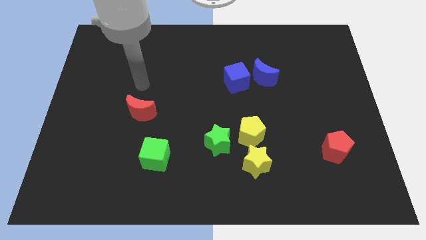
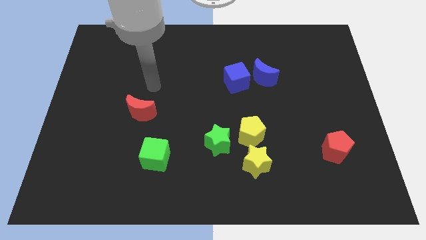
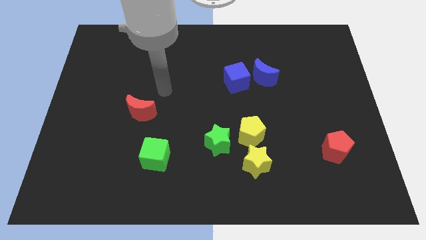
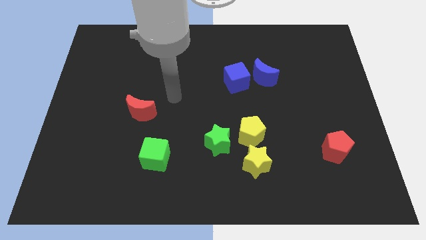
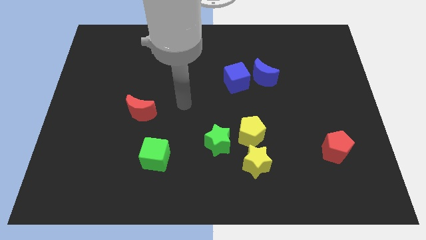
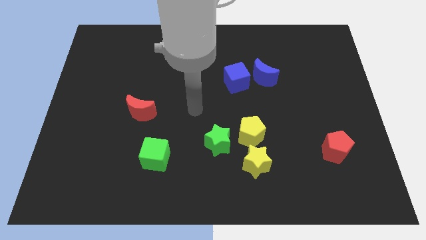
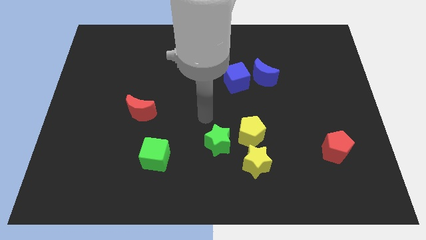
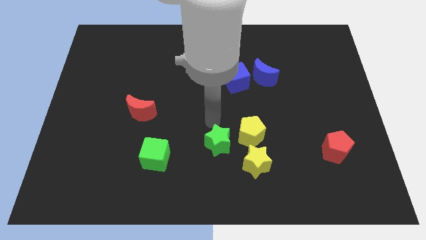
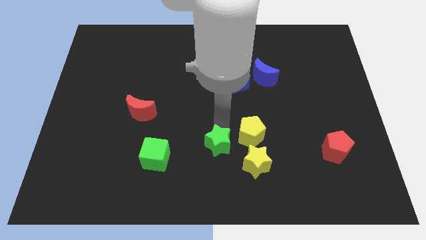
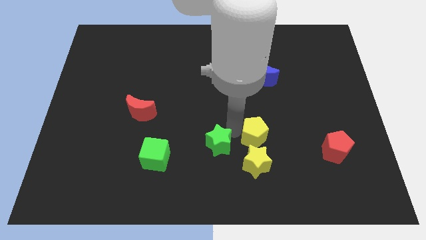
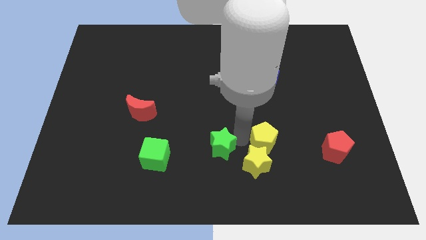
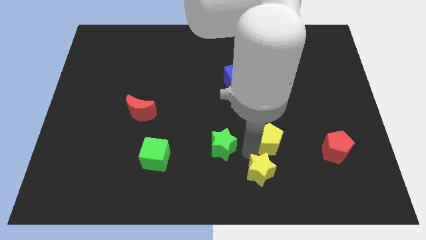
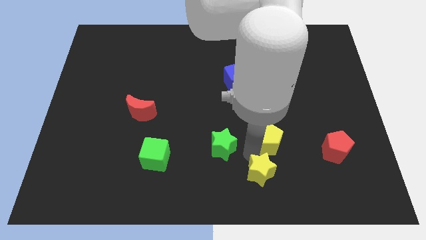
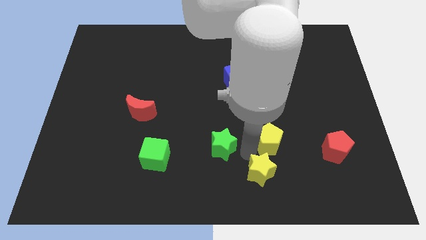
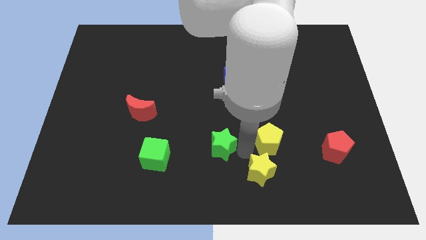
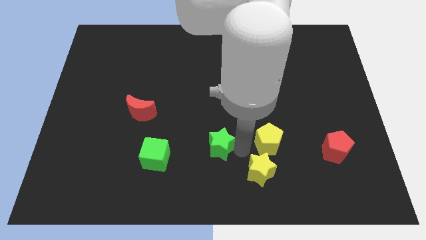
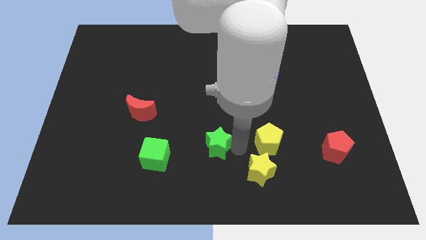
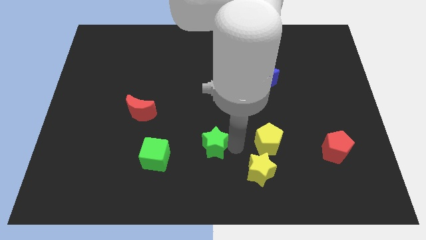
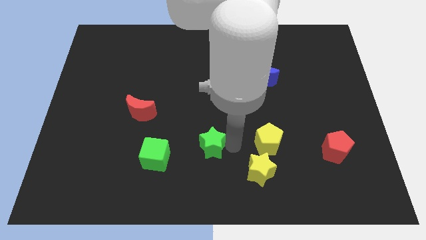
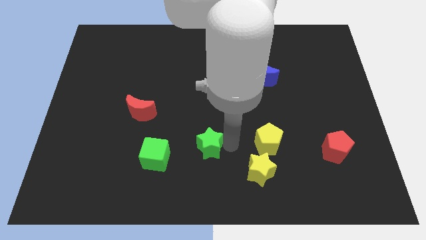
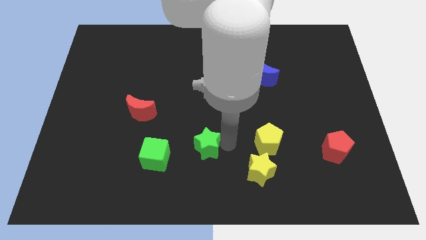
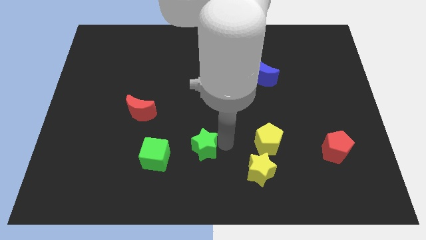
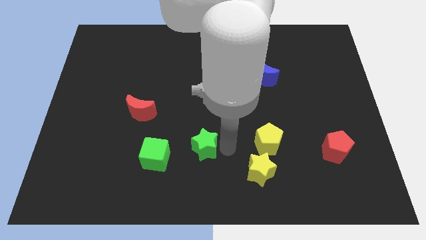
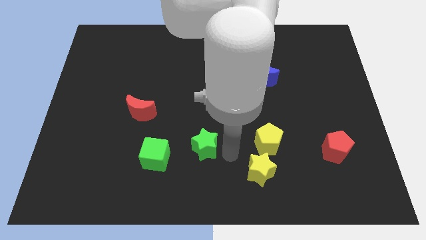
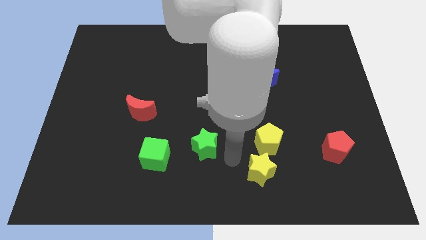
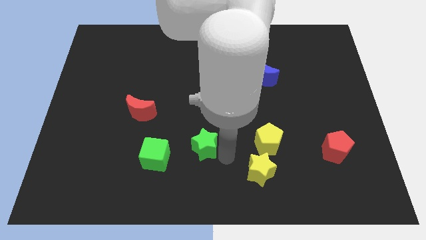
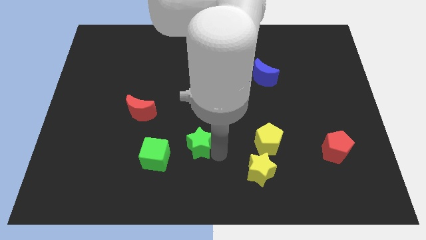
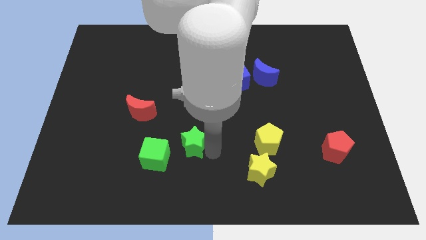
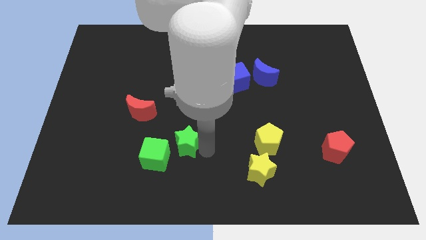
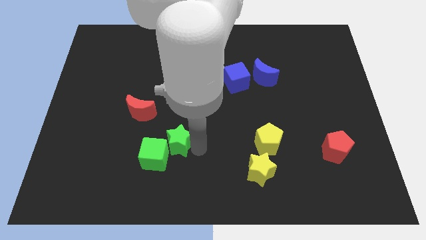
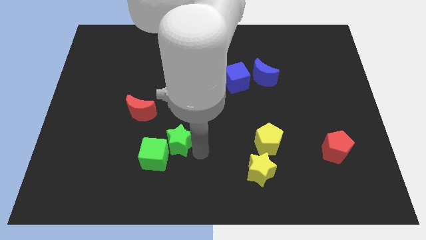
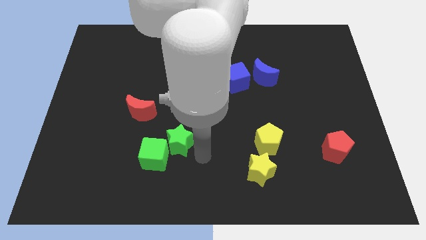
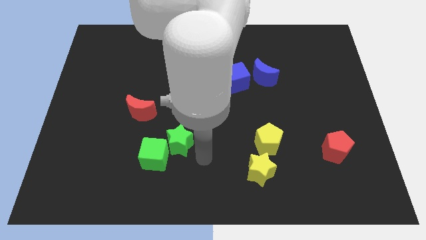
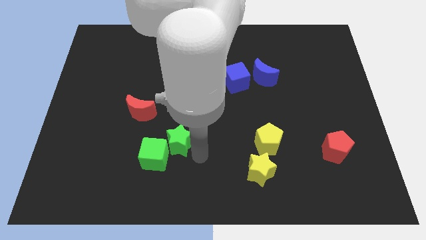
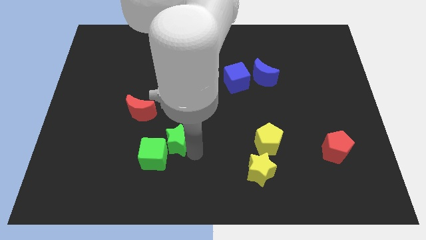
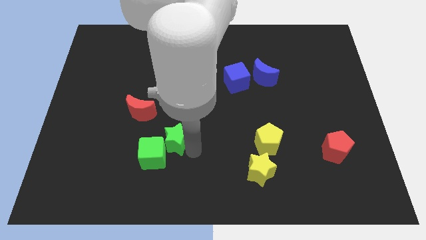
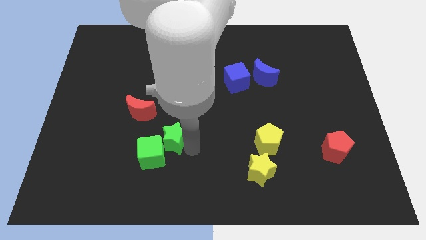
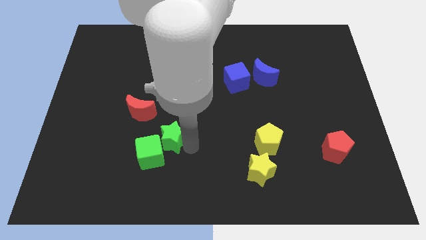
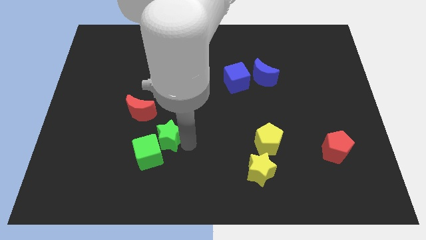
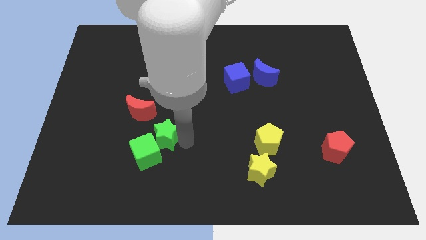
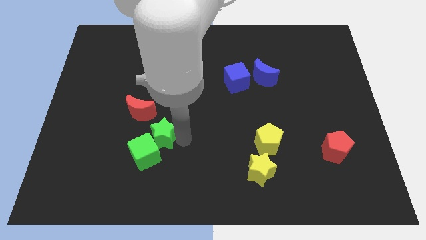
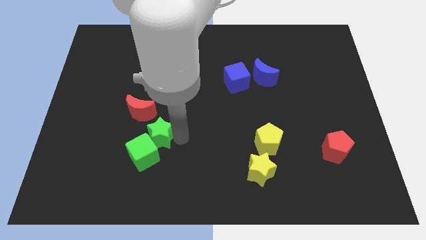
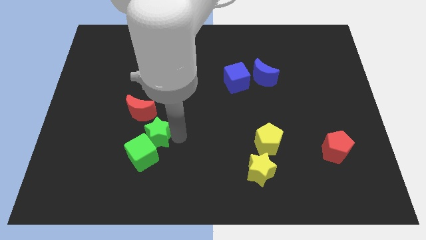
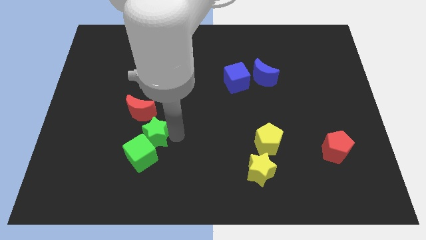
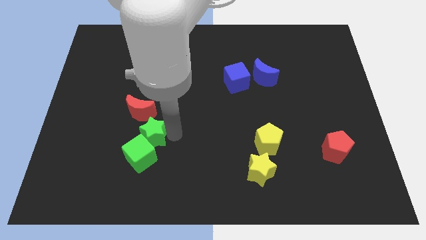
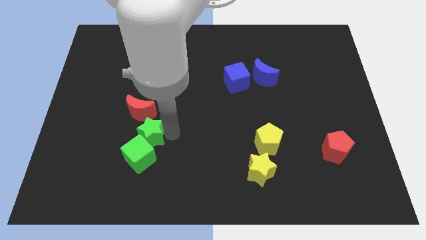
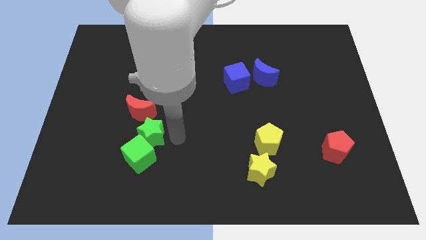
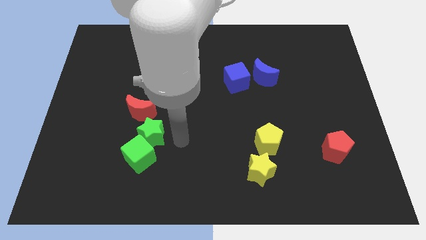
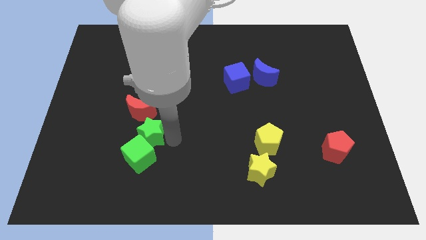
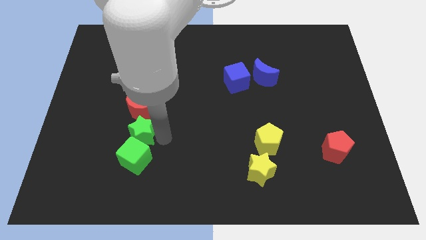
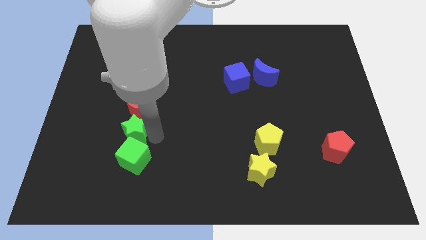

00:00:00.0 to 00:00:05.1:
move the green star to the bottom left of the red moon

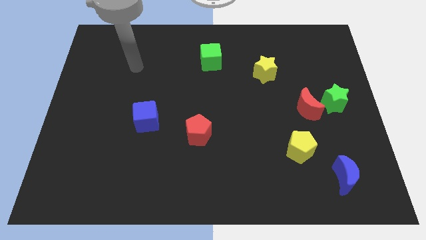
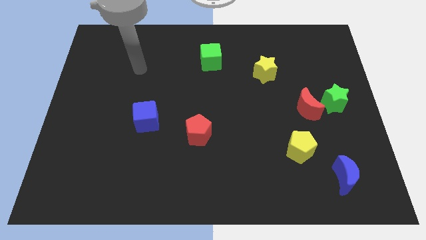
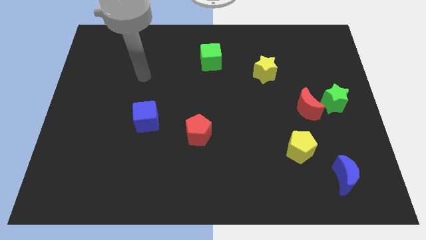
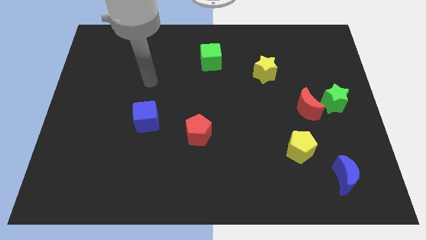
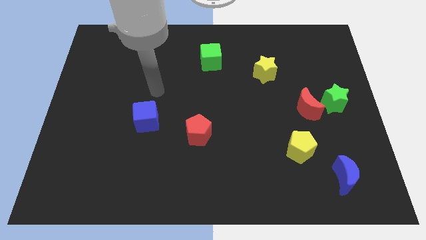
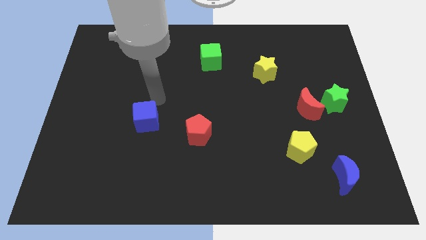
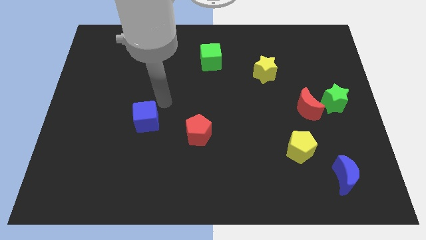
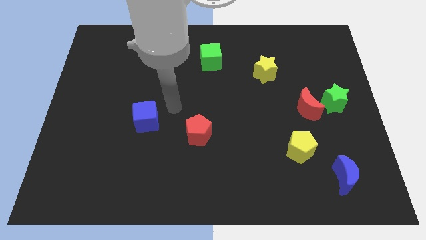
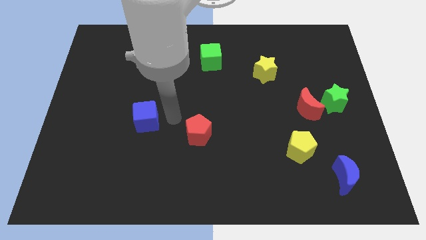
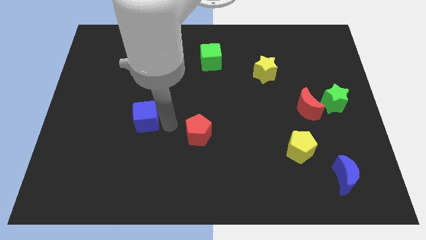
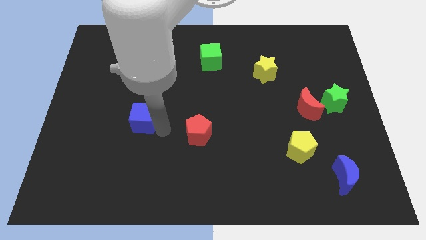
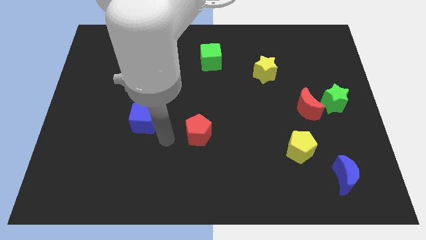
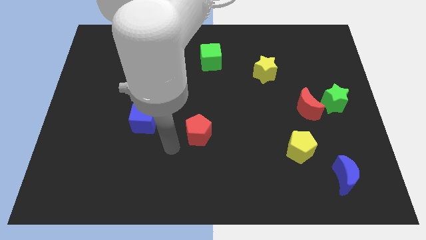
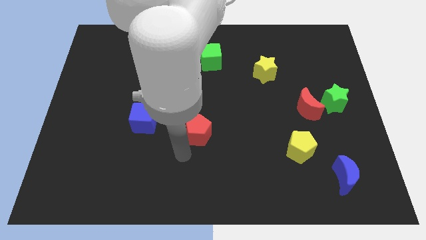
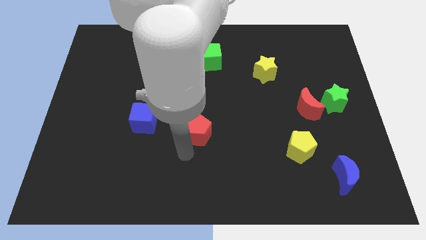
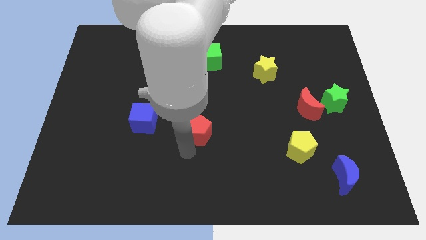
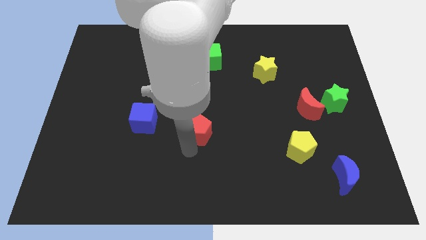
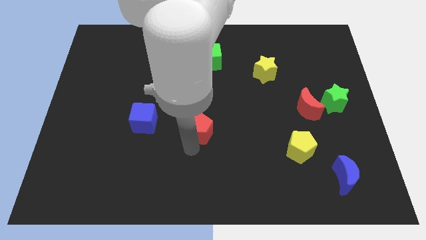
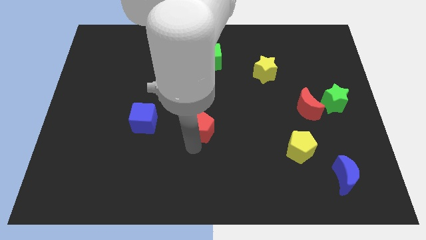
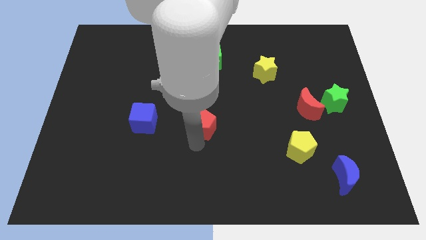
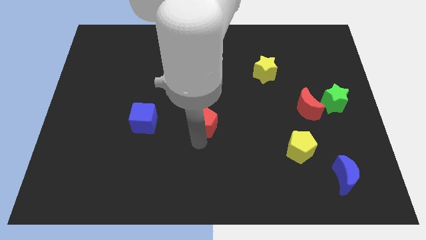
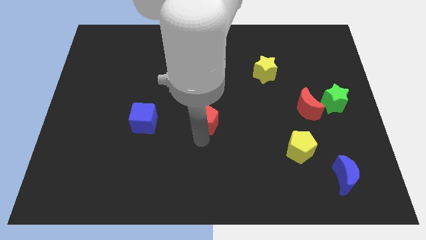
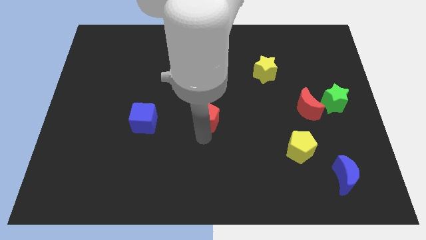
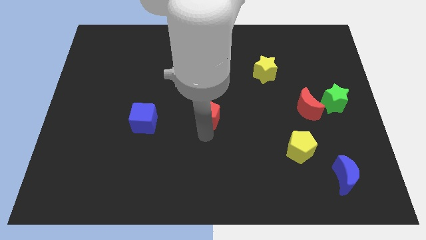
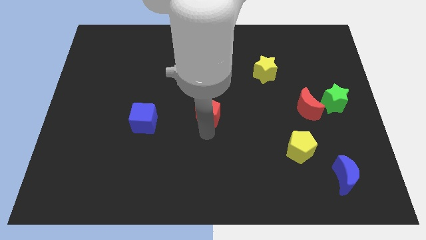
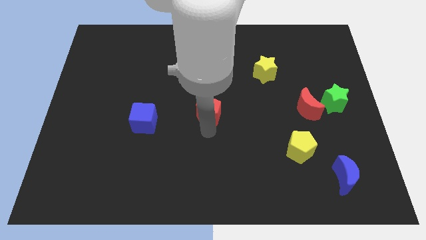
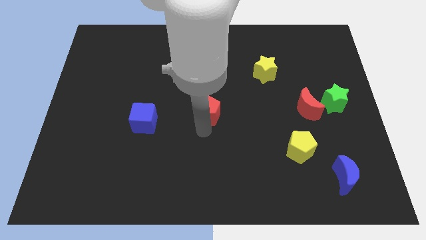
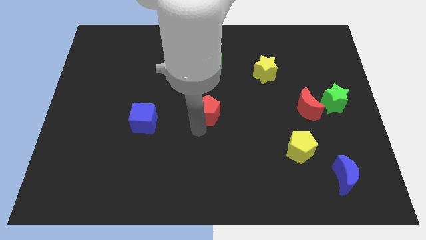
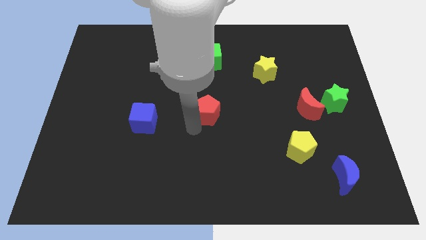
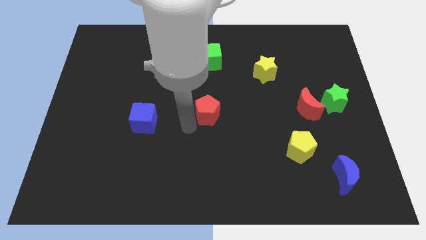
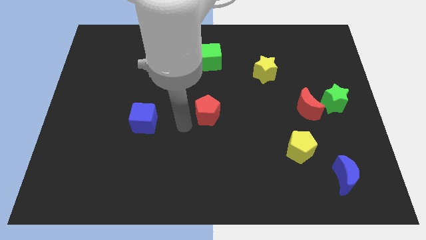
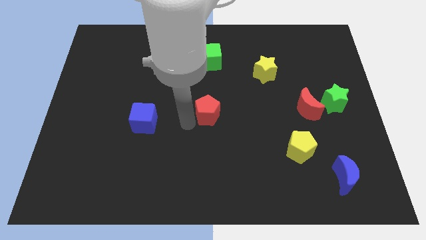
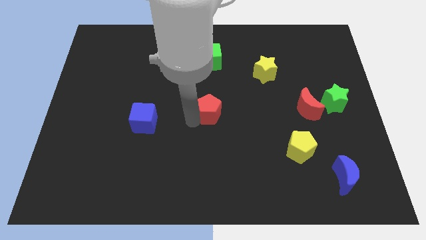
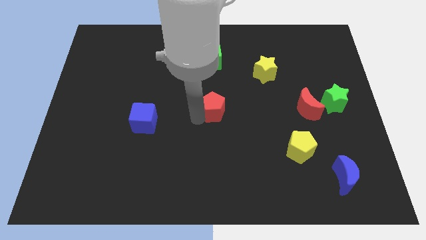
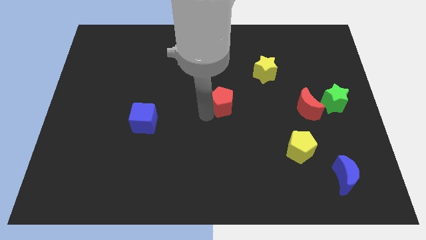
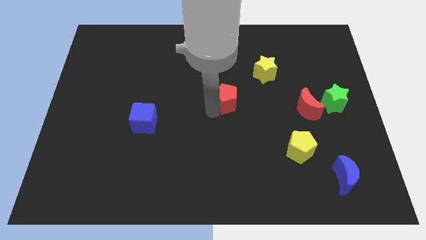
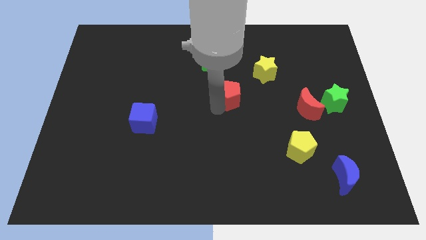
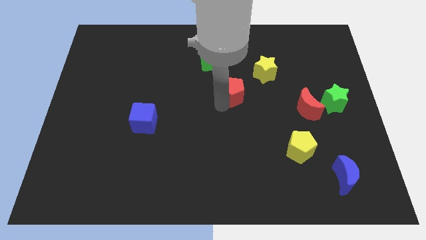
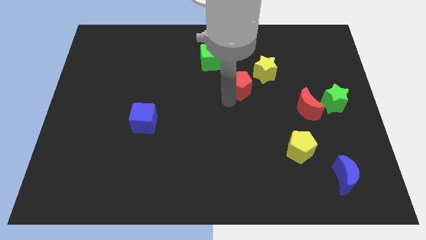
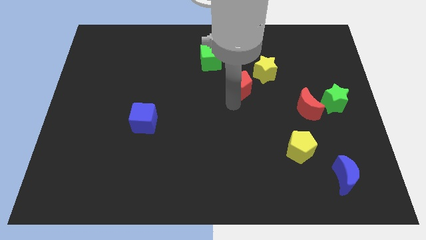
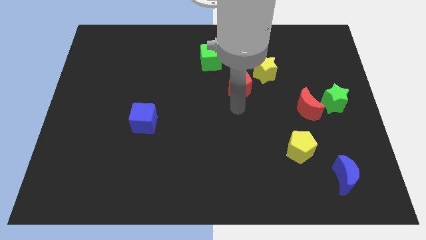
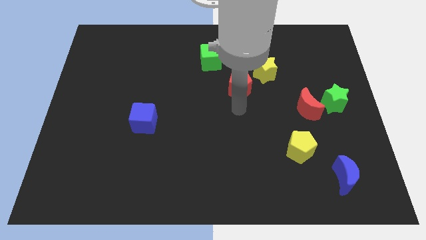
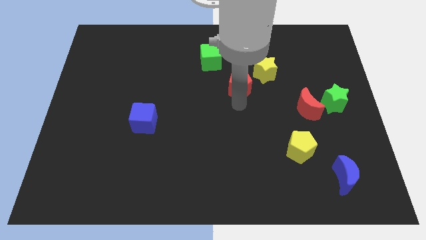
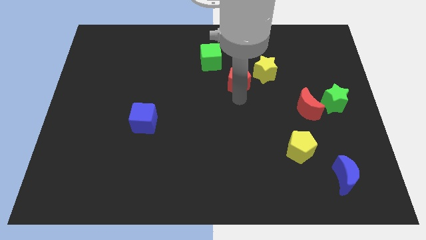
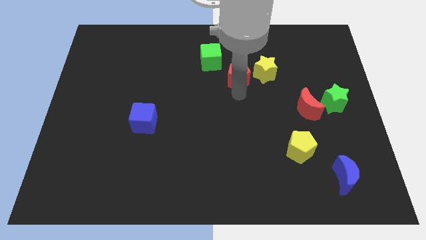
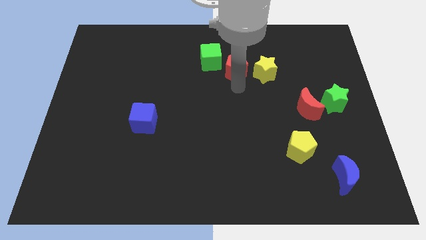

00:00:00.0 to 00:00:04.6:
push the red pentagon to the top left of the yellow star
